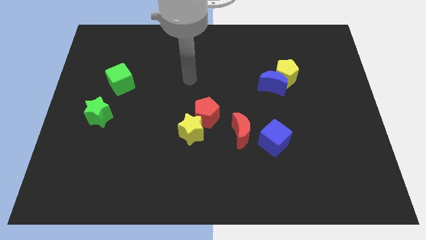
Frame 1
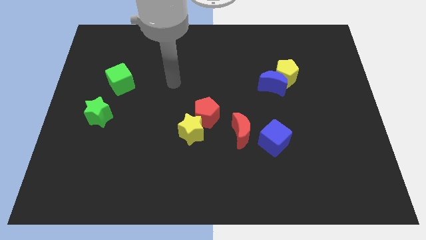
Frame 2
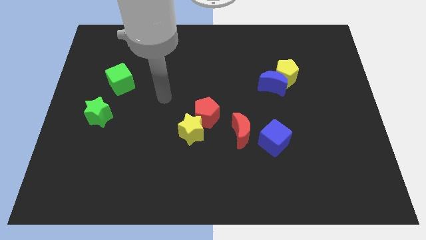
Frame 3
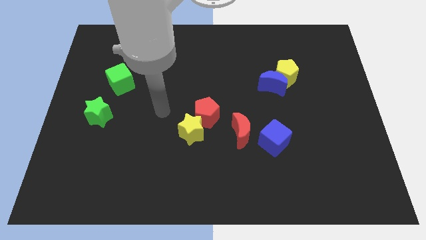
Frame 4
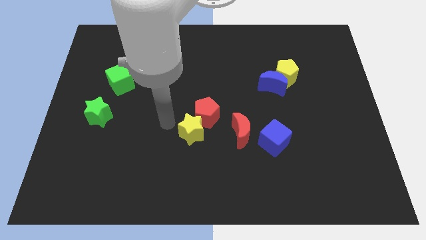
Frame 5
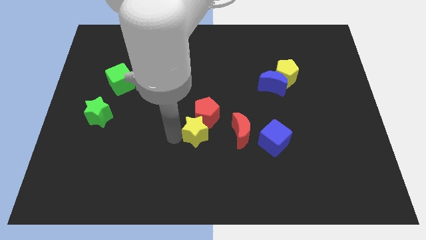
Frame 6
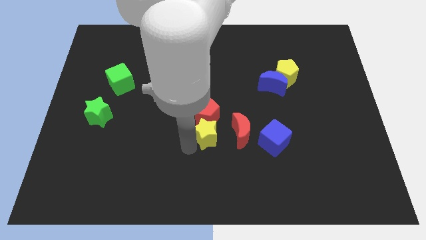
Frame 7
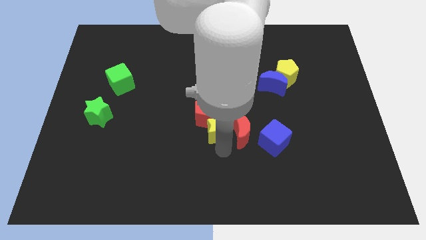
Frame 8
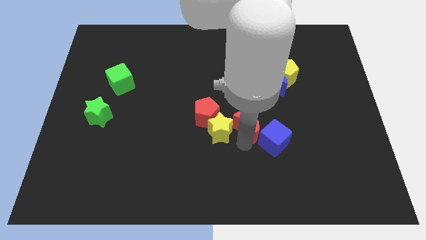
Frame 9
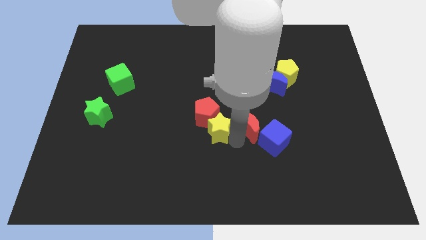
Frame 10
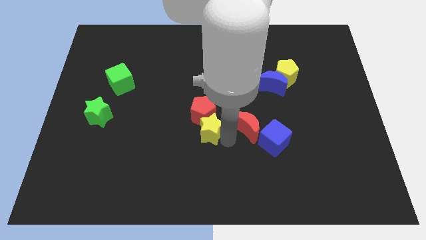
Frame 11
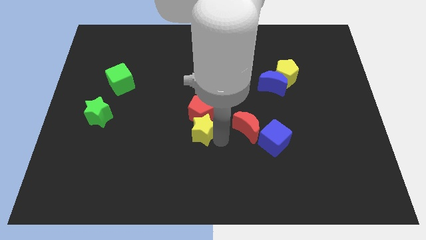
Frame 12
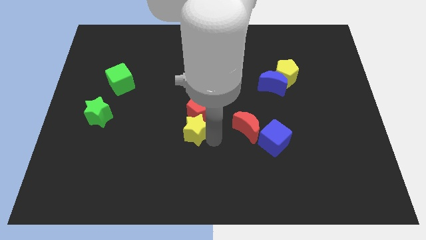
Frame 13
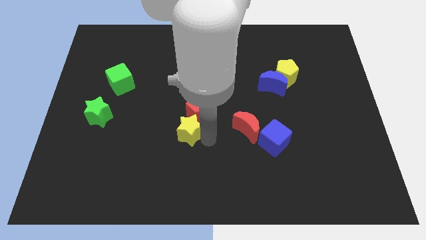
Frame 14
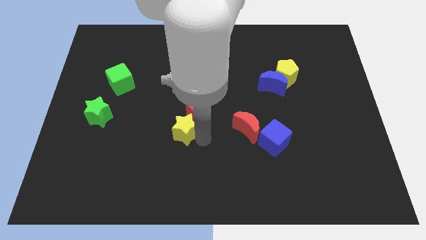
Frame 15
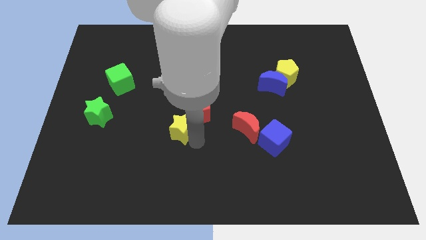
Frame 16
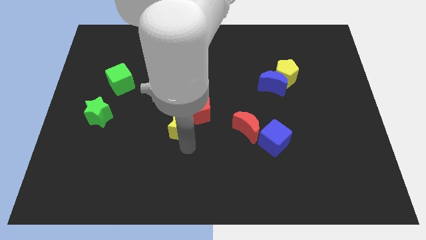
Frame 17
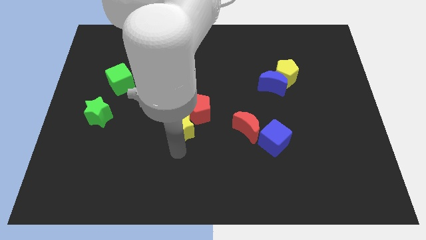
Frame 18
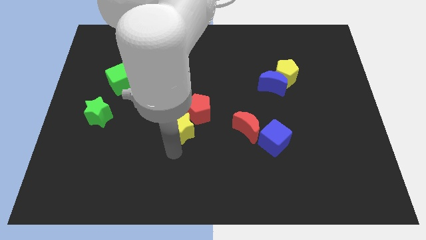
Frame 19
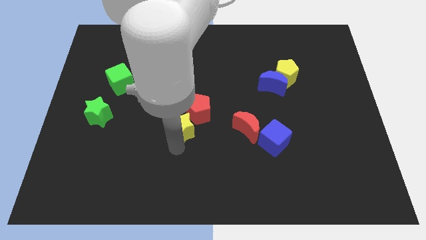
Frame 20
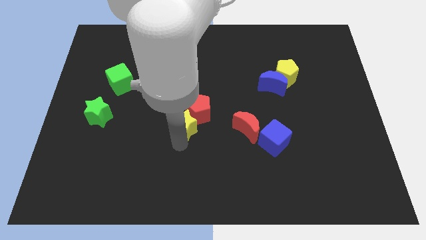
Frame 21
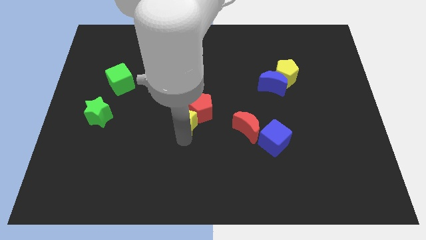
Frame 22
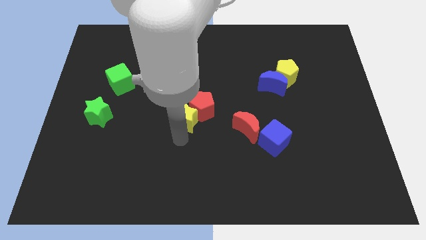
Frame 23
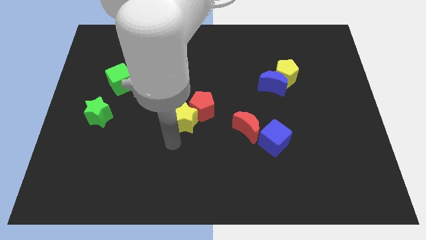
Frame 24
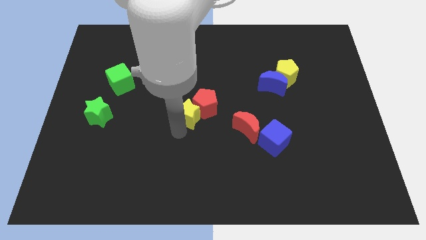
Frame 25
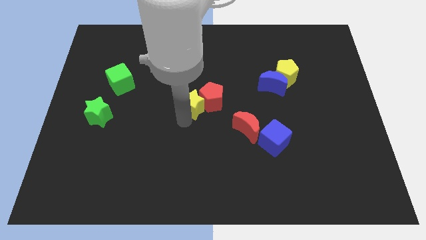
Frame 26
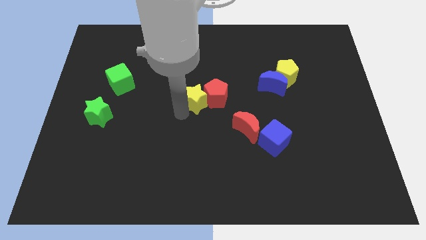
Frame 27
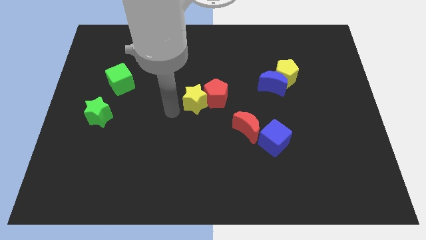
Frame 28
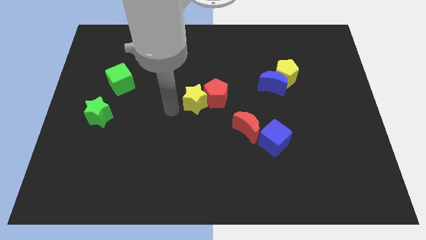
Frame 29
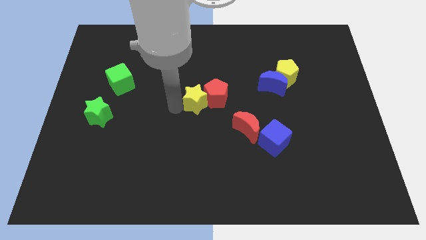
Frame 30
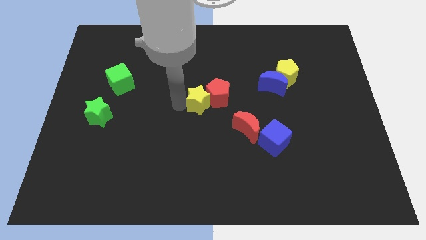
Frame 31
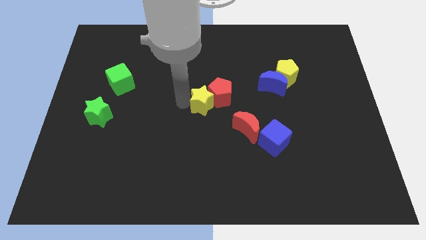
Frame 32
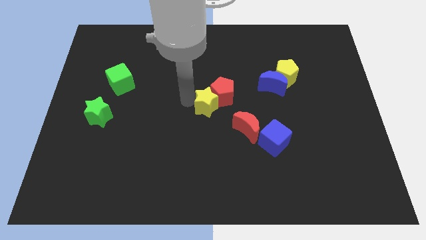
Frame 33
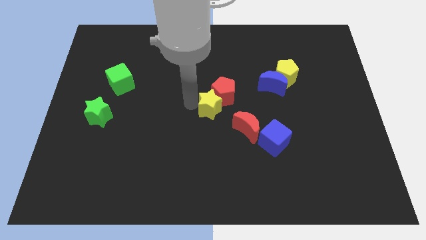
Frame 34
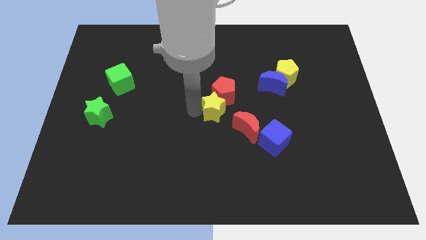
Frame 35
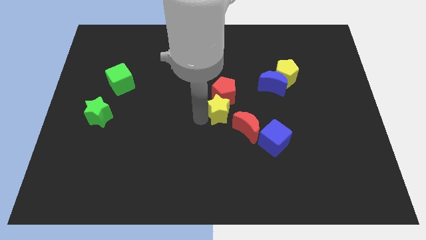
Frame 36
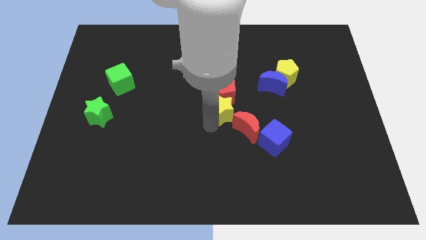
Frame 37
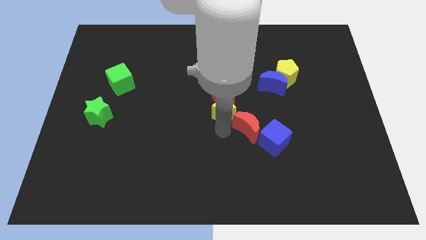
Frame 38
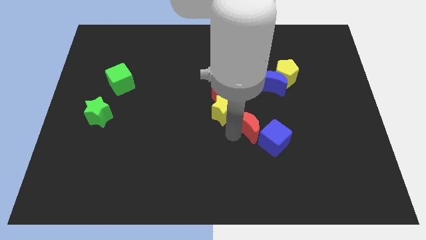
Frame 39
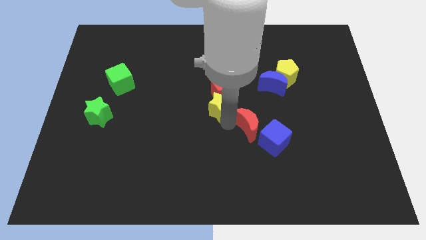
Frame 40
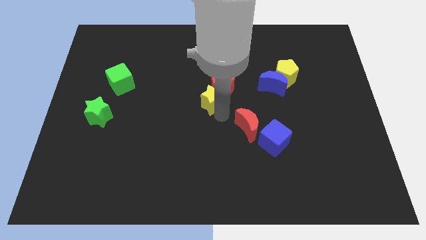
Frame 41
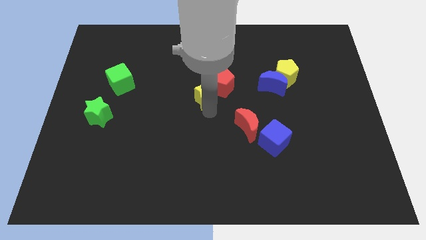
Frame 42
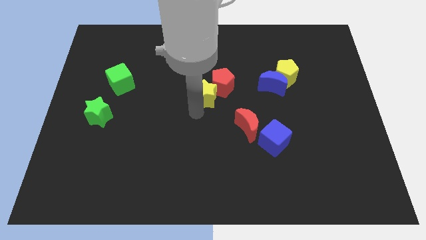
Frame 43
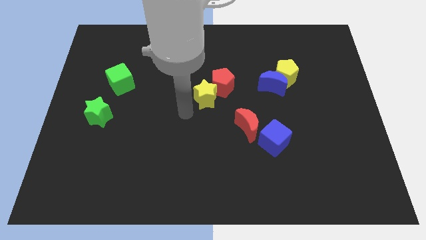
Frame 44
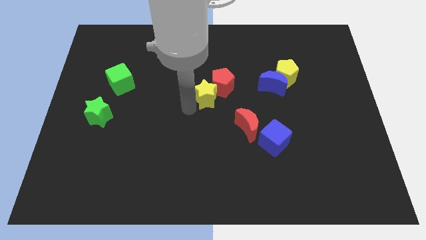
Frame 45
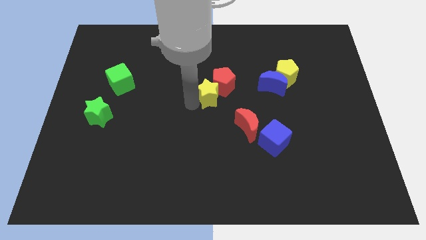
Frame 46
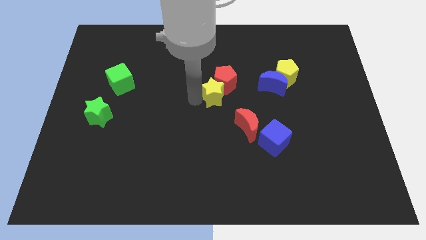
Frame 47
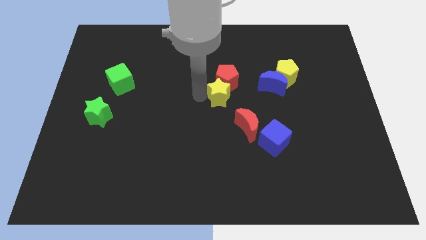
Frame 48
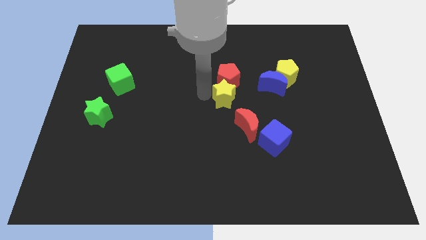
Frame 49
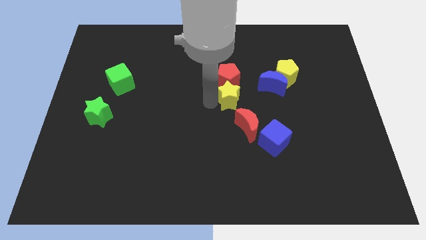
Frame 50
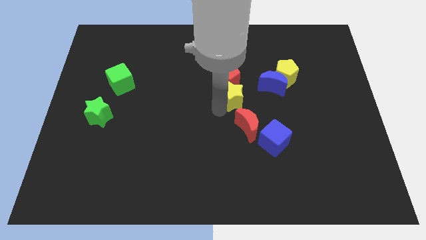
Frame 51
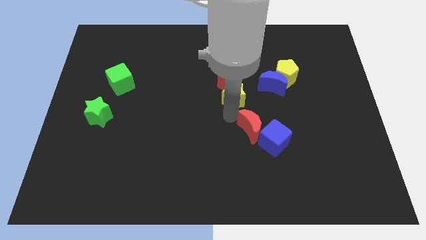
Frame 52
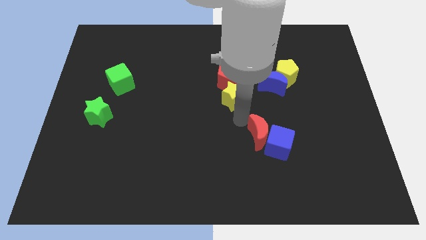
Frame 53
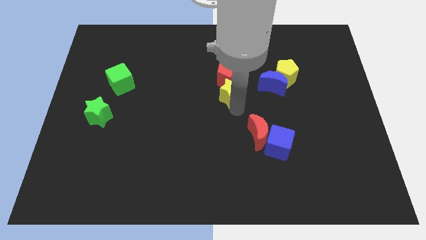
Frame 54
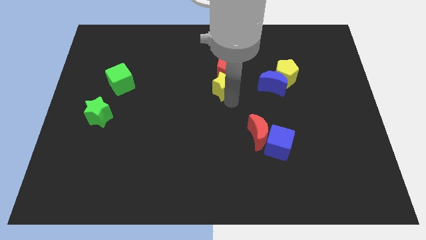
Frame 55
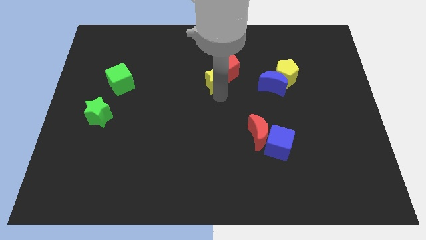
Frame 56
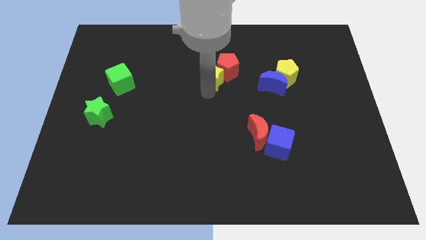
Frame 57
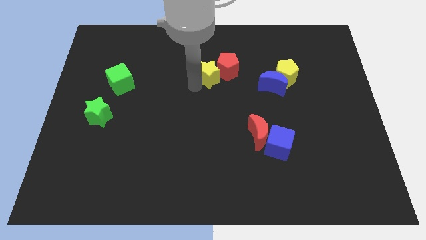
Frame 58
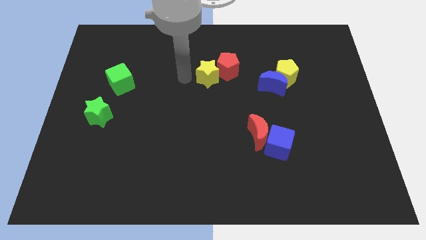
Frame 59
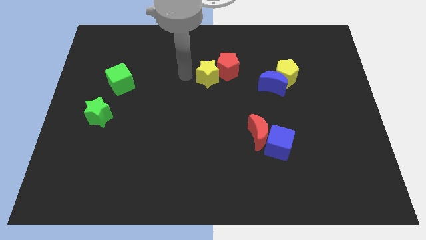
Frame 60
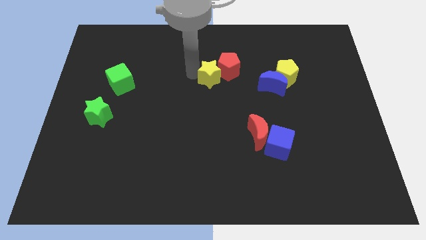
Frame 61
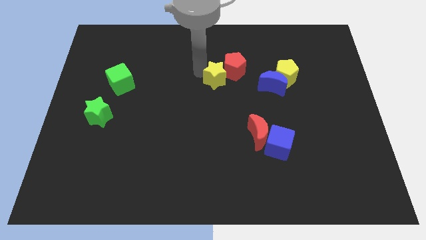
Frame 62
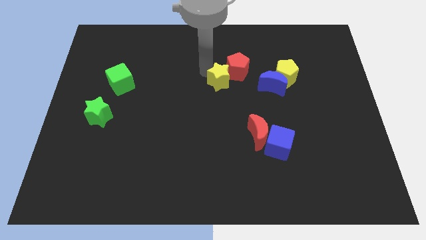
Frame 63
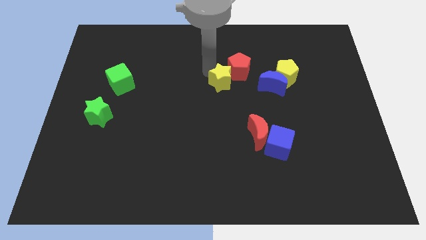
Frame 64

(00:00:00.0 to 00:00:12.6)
slide the yellow star to the left of the yellow pentagon
